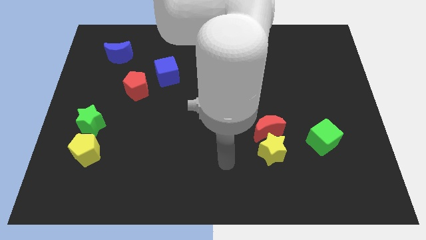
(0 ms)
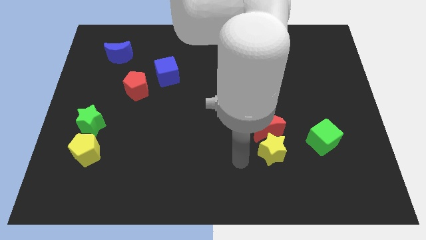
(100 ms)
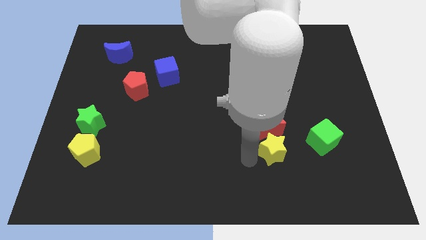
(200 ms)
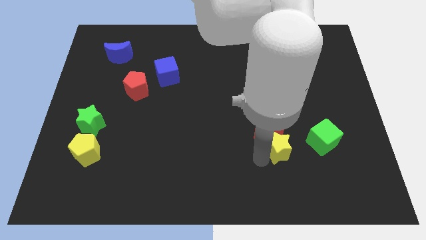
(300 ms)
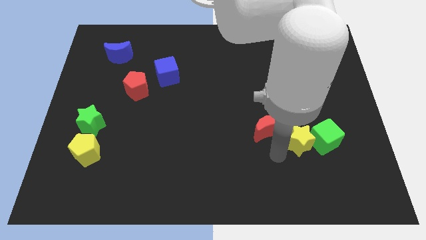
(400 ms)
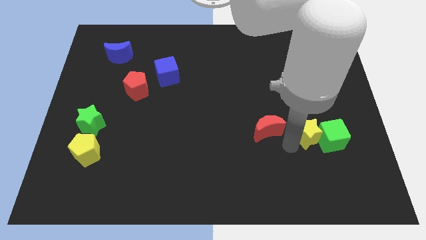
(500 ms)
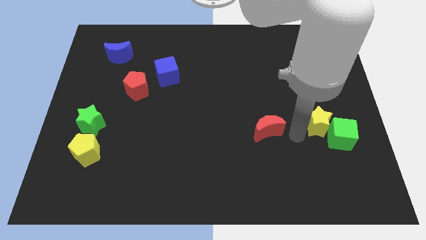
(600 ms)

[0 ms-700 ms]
pull the red moon apart from the yellow star

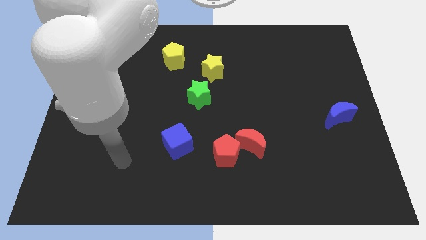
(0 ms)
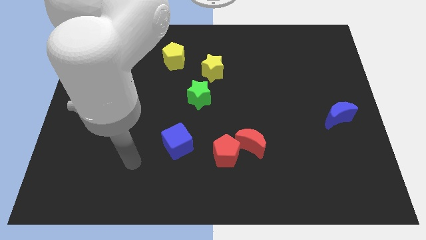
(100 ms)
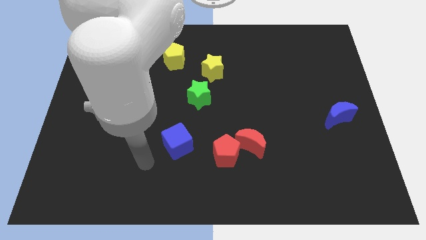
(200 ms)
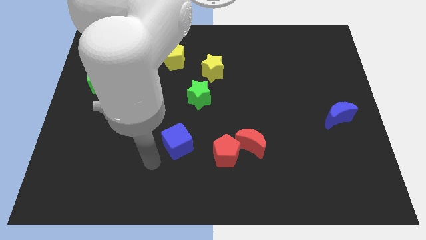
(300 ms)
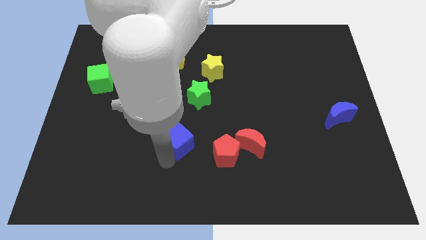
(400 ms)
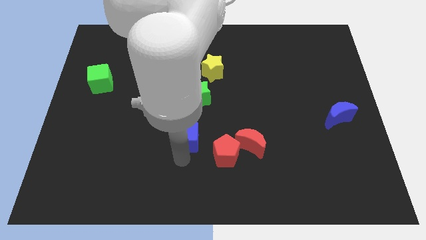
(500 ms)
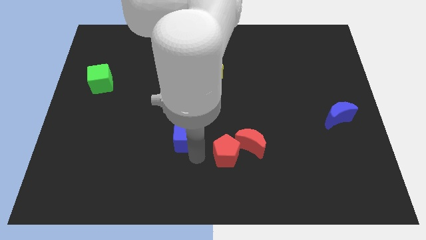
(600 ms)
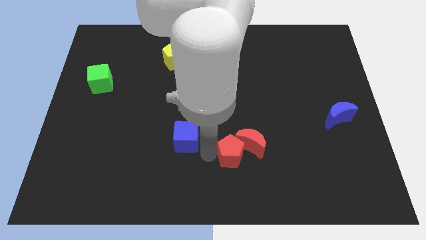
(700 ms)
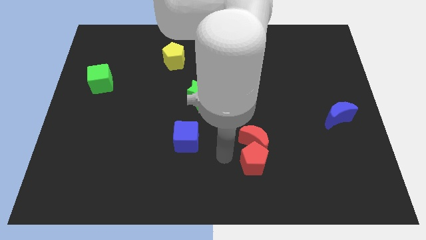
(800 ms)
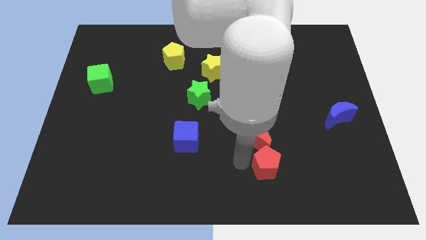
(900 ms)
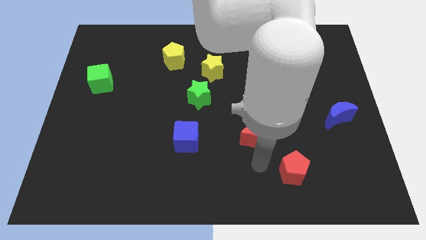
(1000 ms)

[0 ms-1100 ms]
move the red moon away from the red pentagon

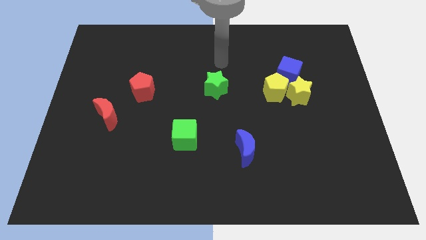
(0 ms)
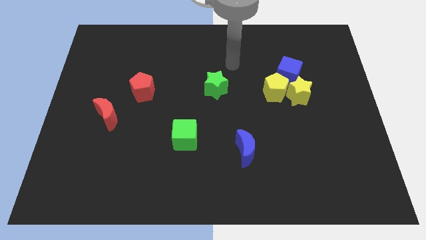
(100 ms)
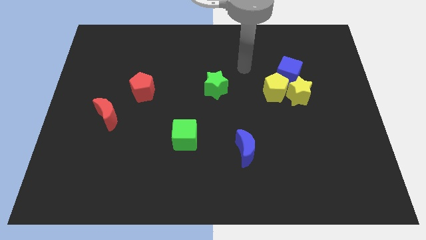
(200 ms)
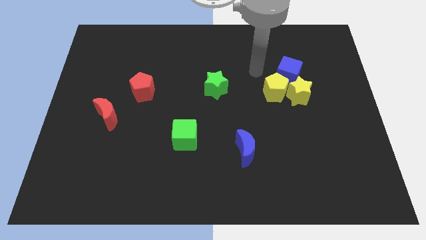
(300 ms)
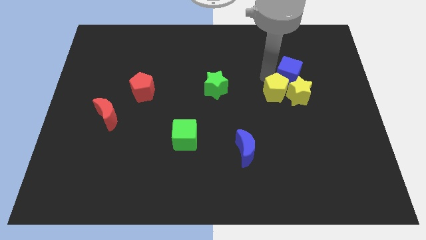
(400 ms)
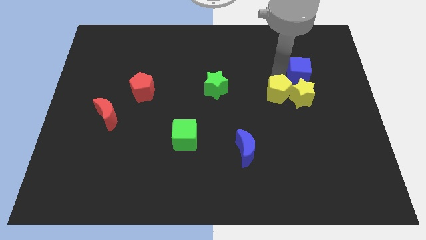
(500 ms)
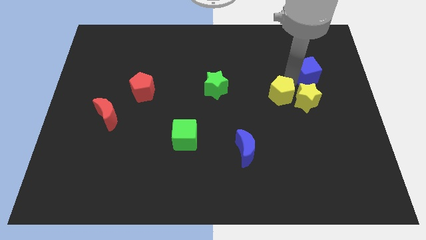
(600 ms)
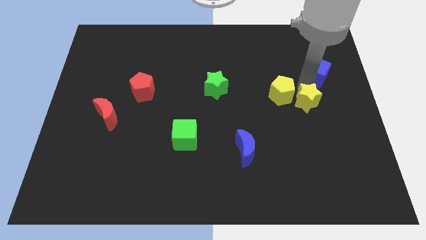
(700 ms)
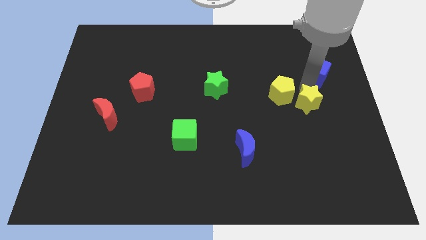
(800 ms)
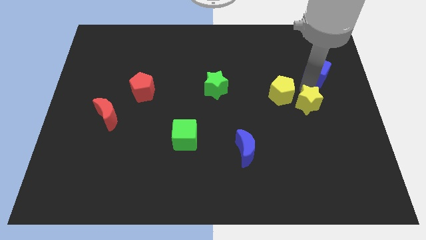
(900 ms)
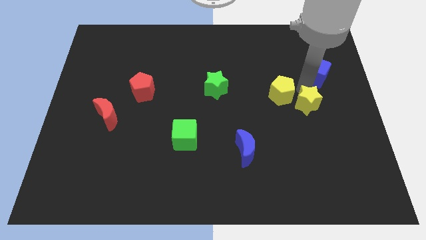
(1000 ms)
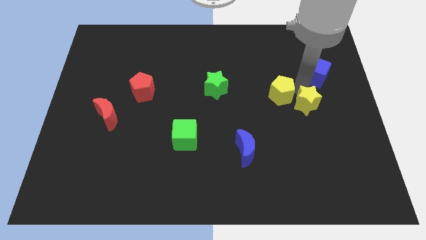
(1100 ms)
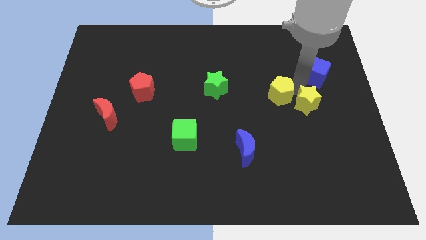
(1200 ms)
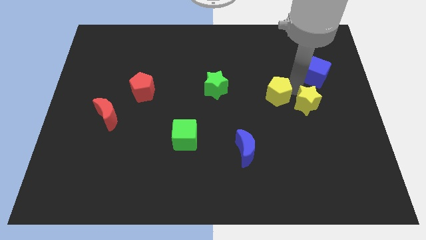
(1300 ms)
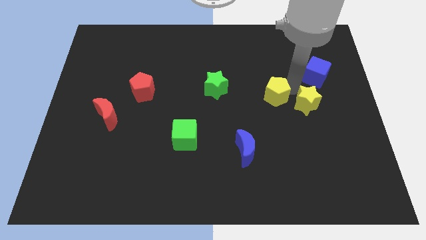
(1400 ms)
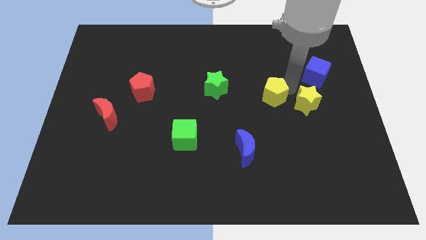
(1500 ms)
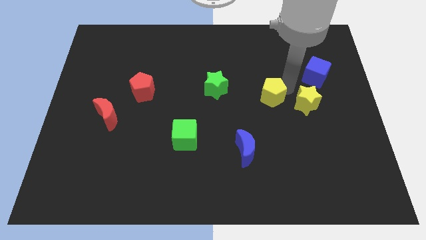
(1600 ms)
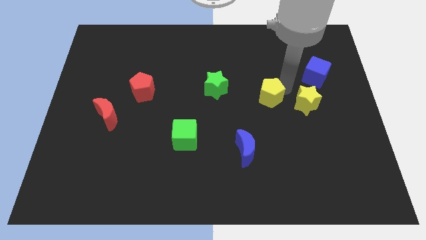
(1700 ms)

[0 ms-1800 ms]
separate the yellow pentagon from the yellow star and blue cube

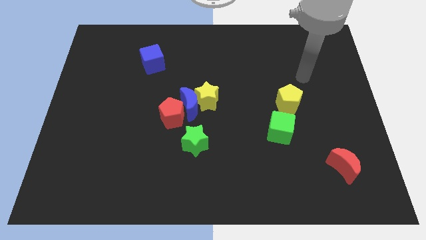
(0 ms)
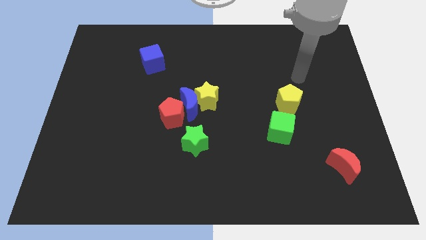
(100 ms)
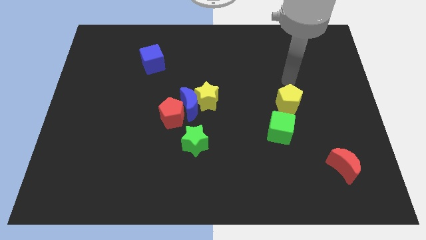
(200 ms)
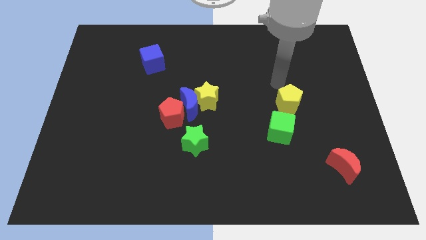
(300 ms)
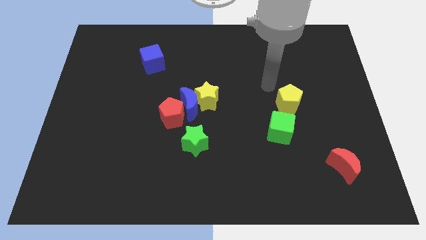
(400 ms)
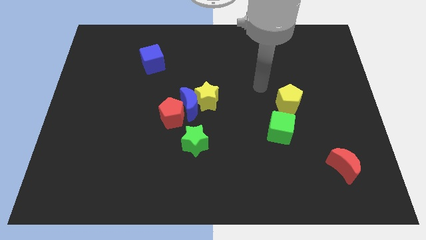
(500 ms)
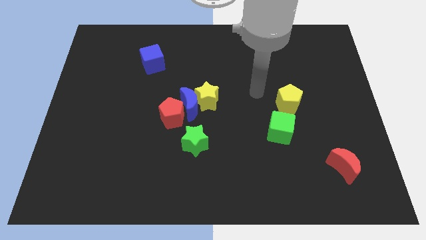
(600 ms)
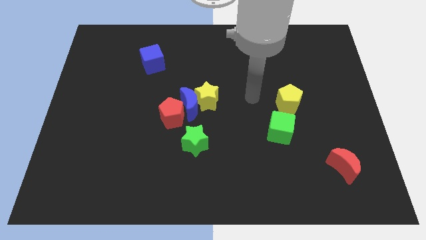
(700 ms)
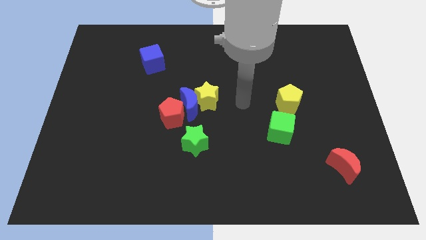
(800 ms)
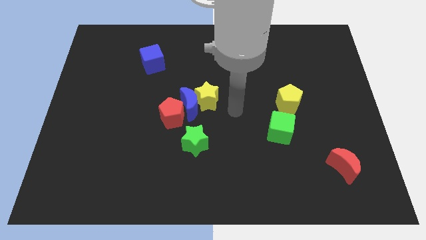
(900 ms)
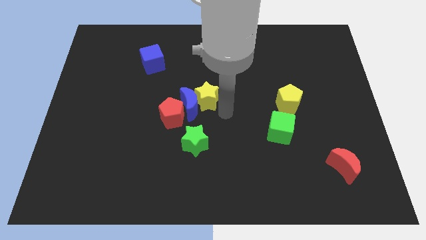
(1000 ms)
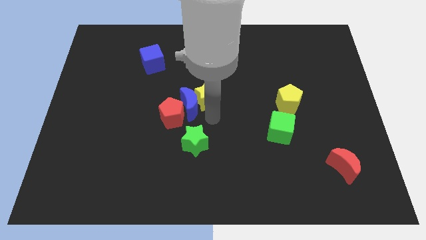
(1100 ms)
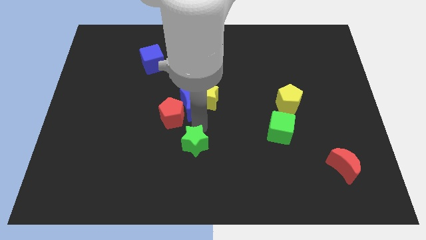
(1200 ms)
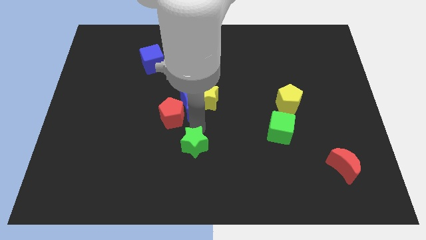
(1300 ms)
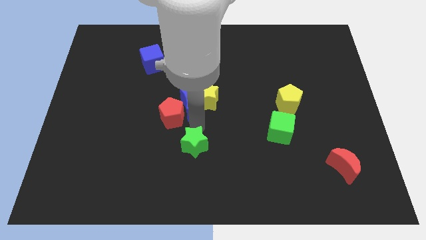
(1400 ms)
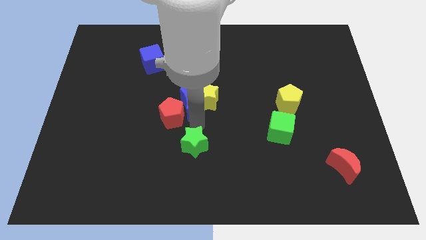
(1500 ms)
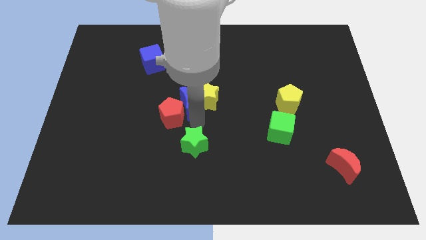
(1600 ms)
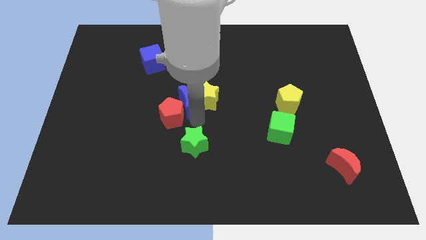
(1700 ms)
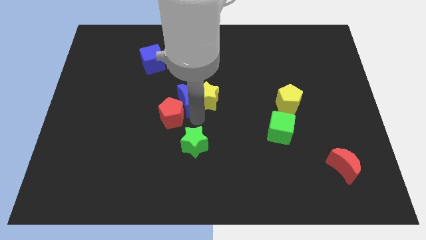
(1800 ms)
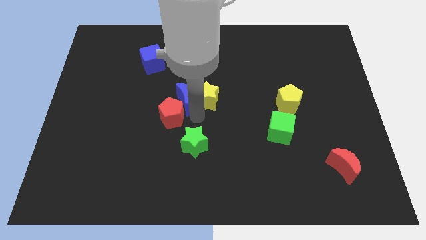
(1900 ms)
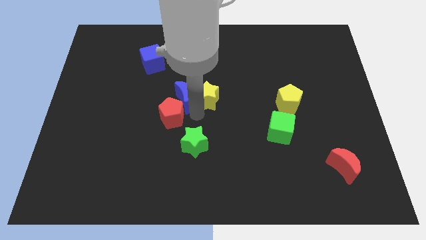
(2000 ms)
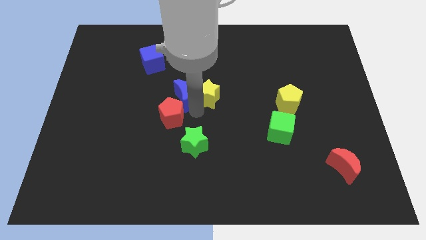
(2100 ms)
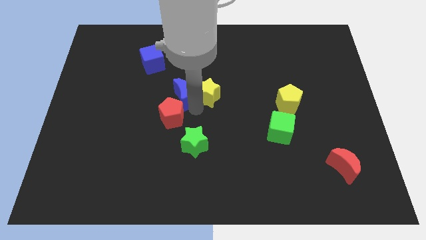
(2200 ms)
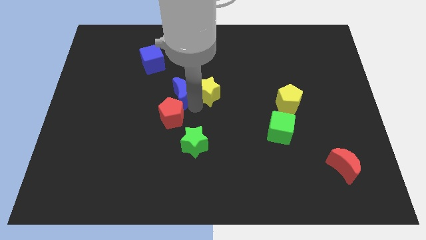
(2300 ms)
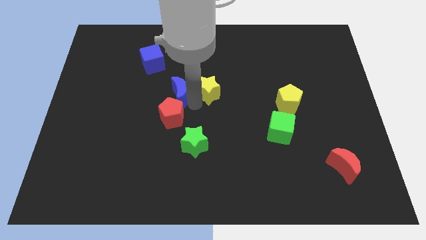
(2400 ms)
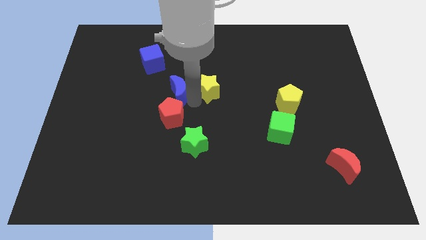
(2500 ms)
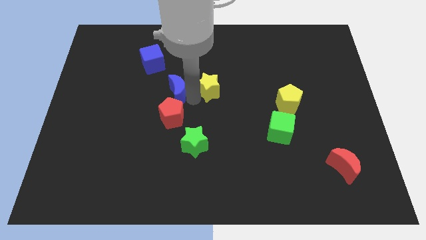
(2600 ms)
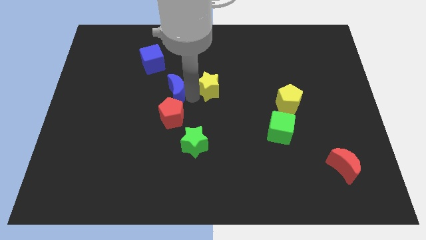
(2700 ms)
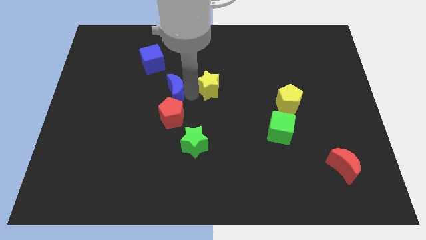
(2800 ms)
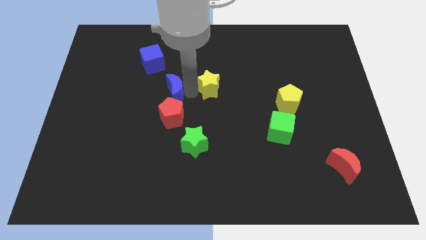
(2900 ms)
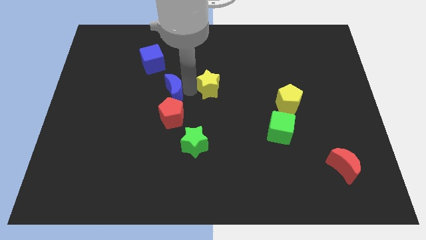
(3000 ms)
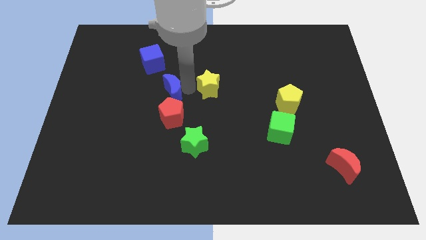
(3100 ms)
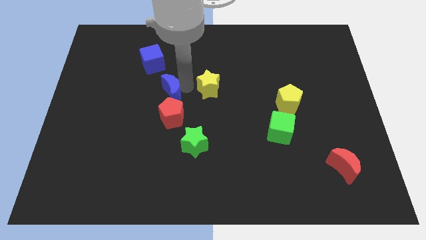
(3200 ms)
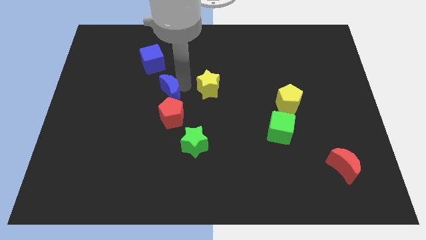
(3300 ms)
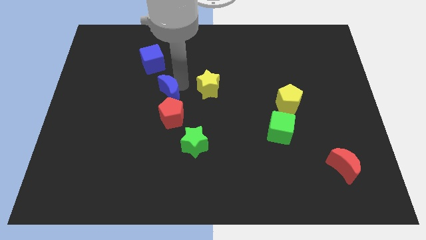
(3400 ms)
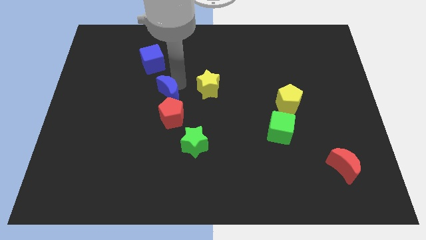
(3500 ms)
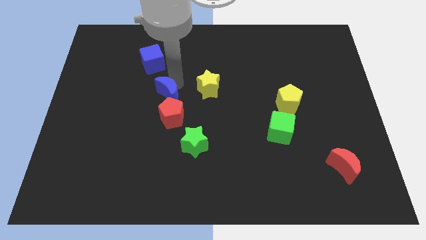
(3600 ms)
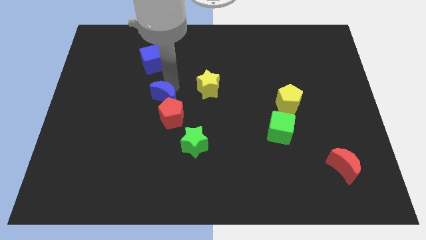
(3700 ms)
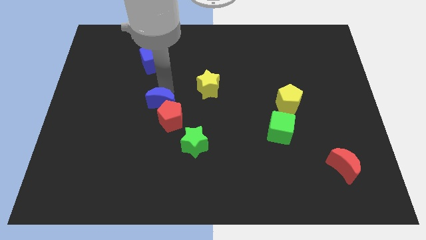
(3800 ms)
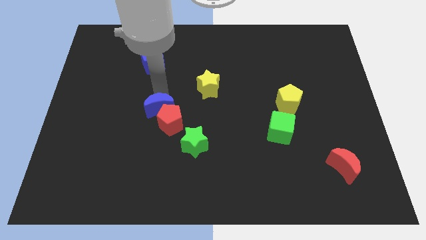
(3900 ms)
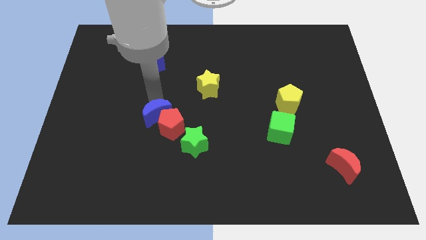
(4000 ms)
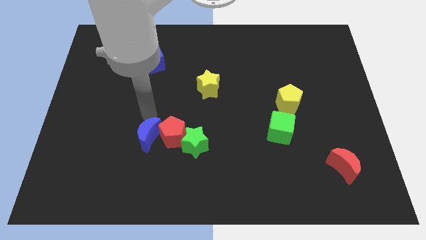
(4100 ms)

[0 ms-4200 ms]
separate the blue moon from the yellow star and red pentagon

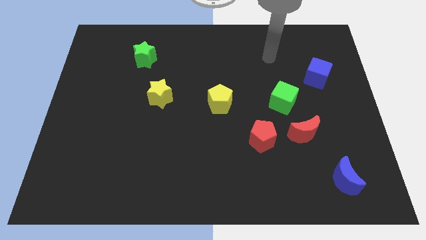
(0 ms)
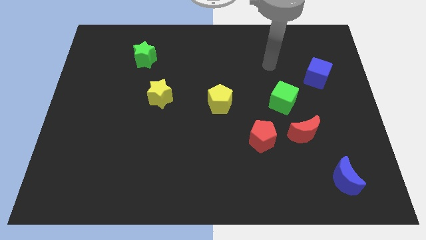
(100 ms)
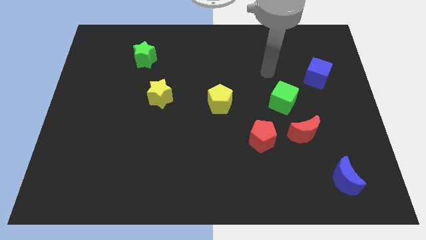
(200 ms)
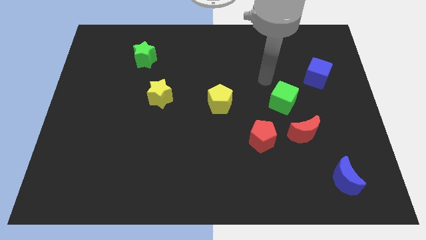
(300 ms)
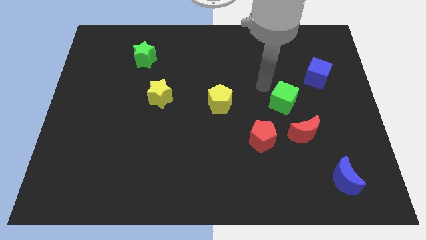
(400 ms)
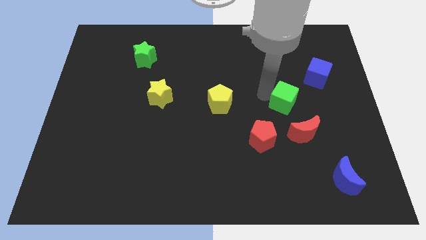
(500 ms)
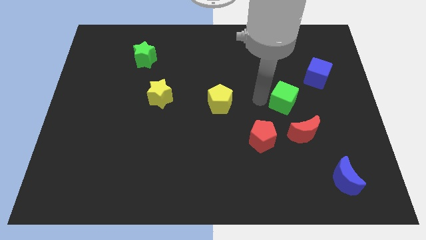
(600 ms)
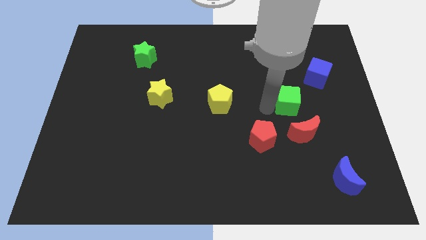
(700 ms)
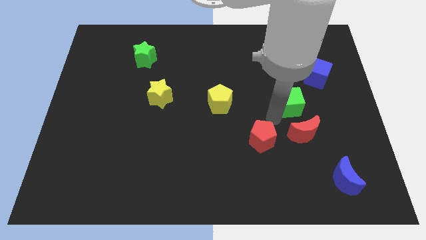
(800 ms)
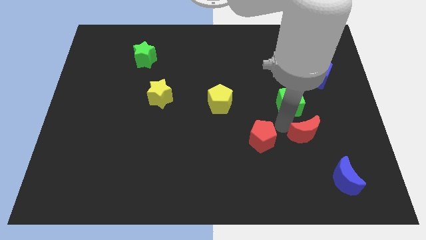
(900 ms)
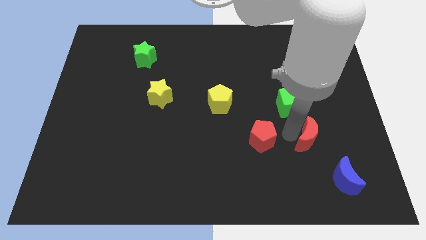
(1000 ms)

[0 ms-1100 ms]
separate the red pentagon from the red moon

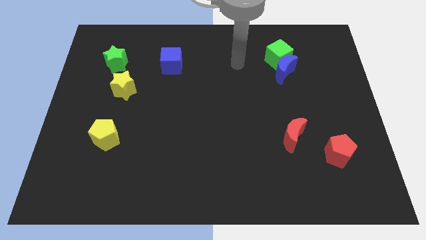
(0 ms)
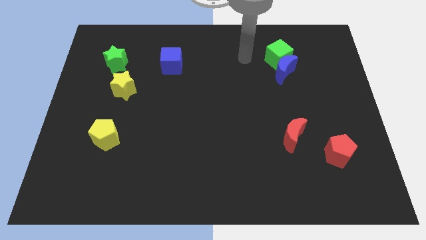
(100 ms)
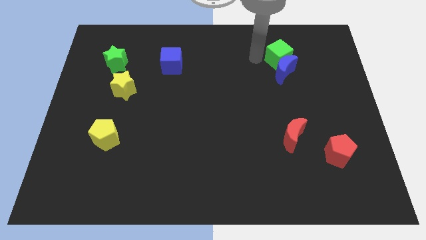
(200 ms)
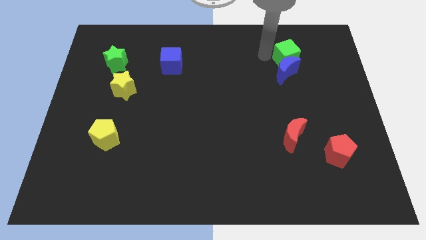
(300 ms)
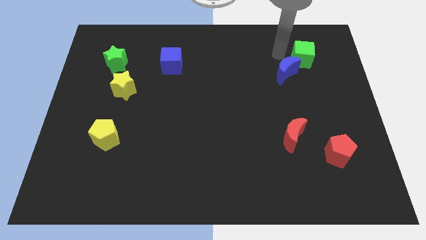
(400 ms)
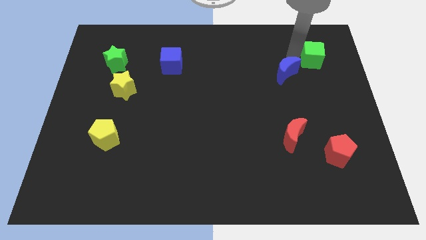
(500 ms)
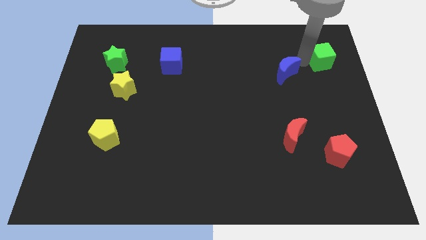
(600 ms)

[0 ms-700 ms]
move the blue moon away from the green cube
